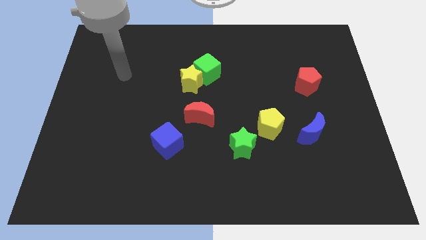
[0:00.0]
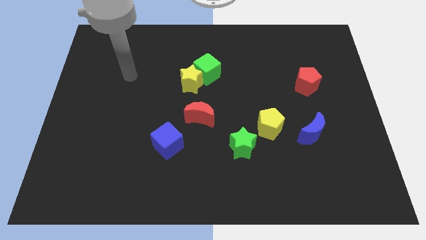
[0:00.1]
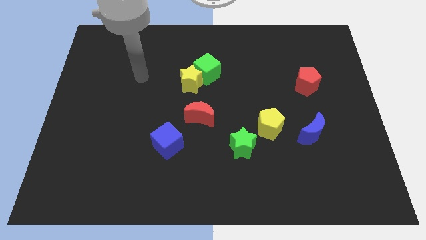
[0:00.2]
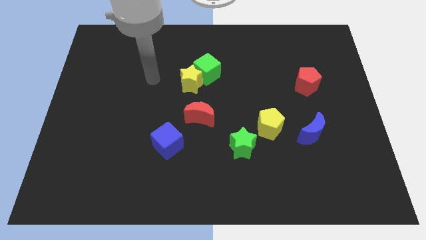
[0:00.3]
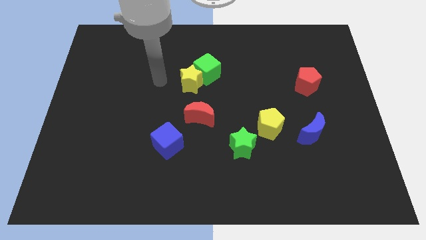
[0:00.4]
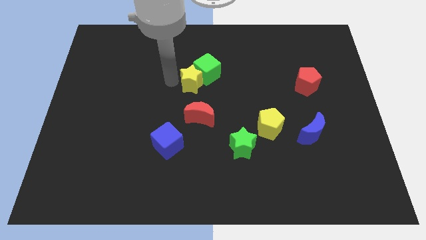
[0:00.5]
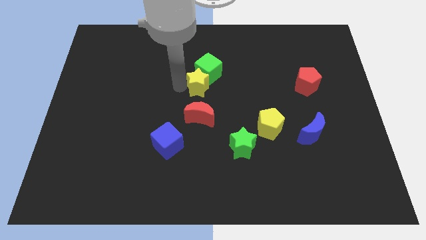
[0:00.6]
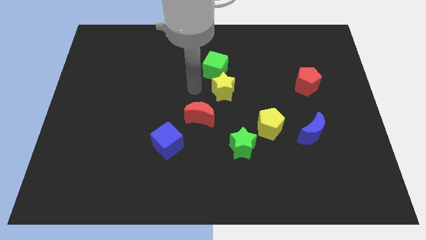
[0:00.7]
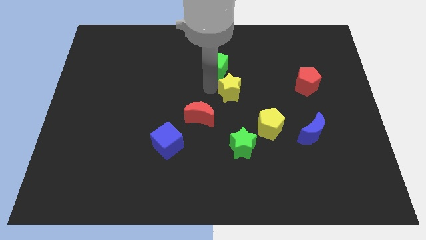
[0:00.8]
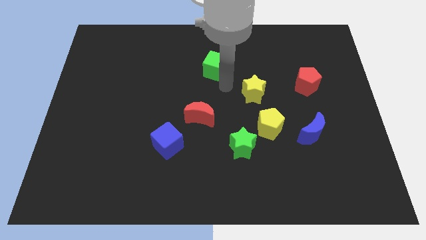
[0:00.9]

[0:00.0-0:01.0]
separate the green cube from the yellow star

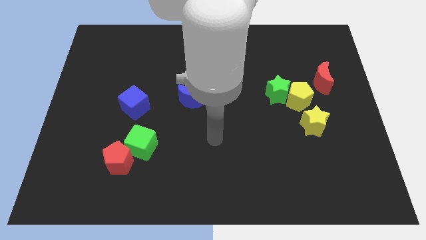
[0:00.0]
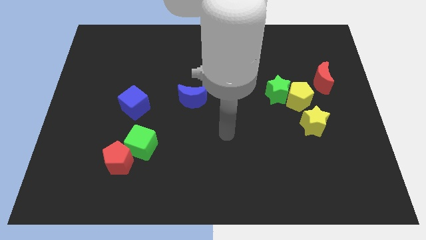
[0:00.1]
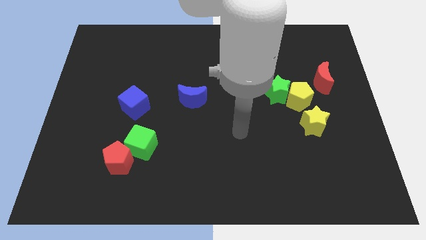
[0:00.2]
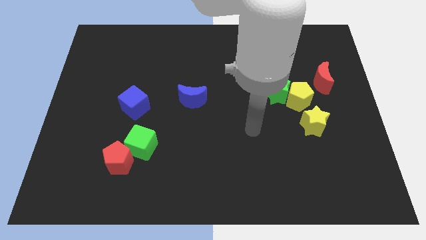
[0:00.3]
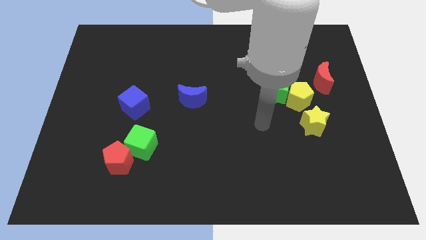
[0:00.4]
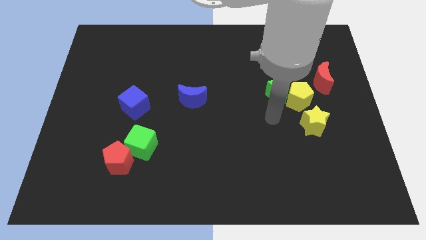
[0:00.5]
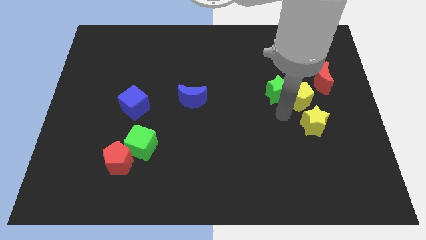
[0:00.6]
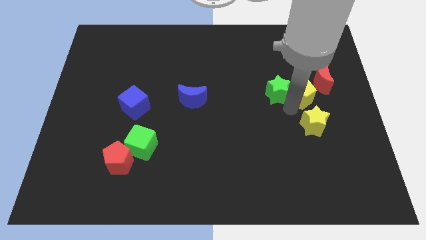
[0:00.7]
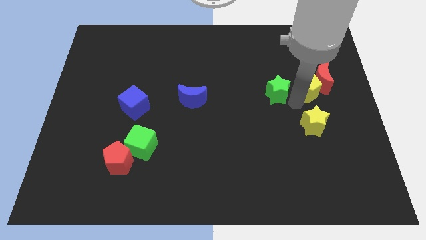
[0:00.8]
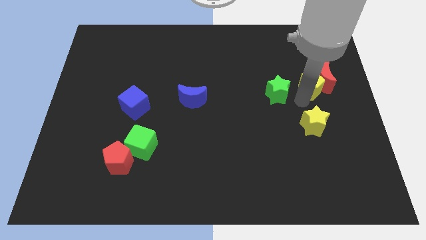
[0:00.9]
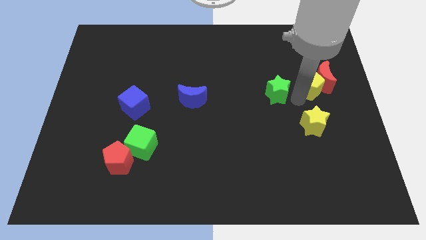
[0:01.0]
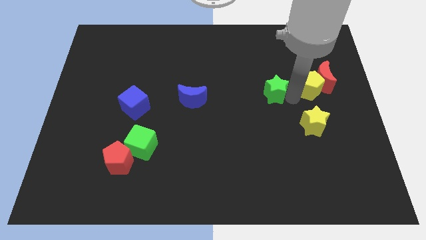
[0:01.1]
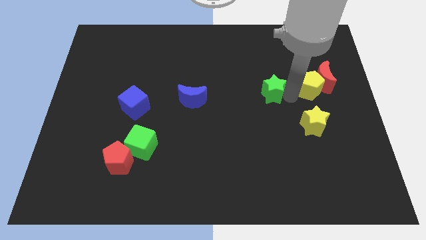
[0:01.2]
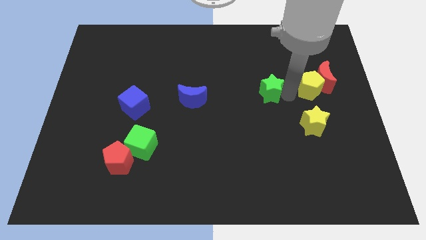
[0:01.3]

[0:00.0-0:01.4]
move the green star away from the yellow pentagon

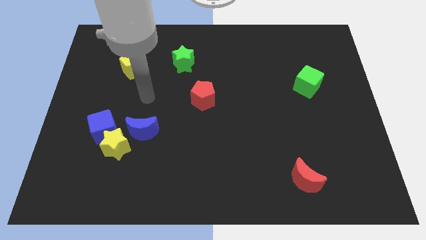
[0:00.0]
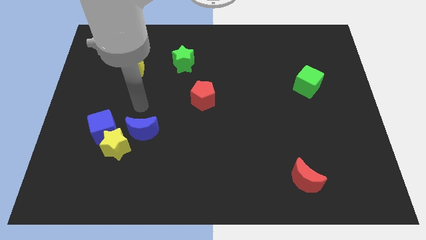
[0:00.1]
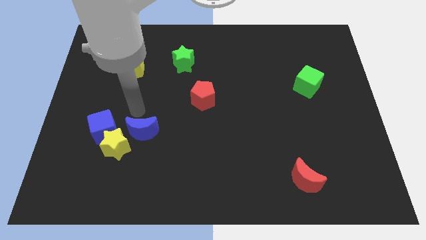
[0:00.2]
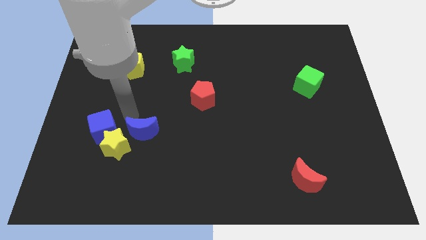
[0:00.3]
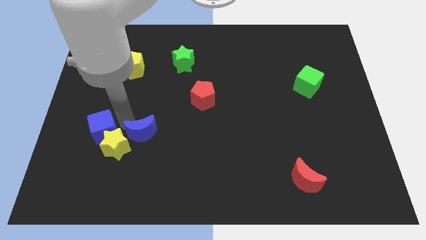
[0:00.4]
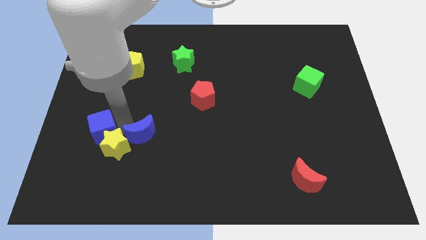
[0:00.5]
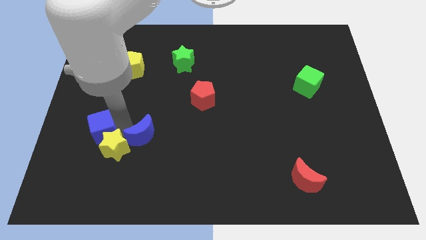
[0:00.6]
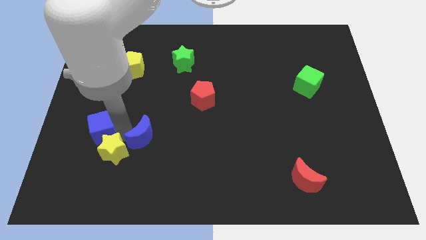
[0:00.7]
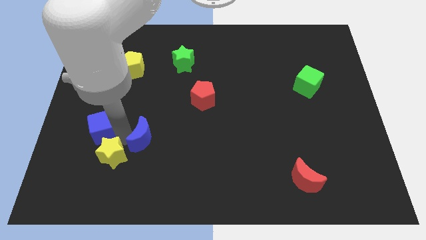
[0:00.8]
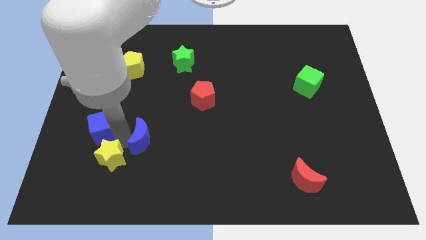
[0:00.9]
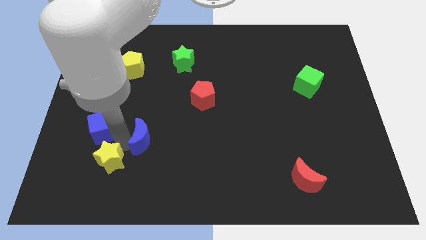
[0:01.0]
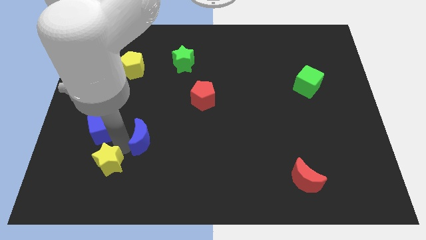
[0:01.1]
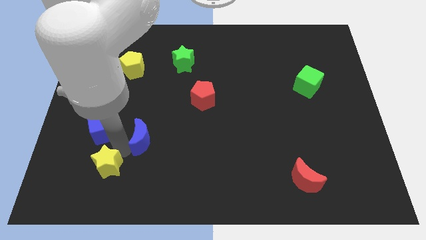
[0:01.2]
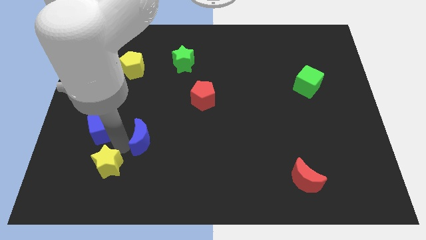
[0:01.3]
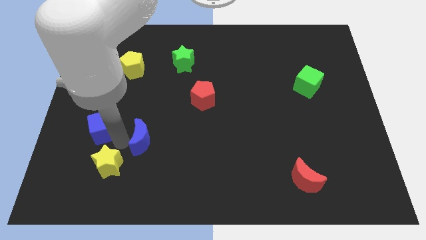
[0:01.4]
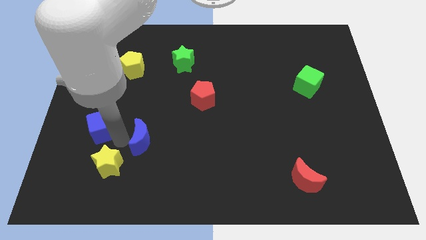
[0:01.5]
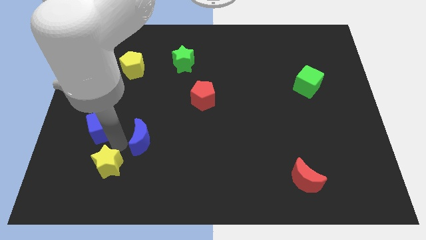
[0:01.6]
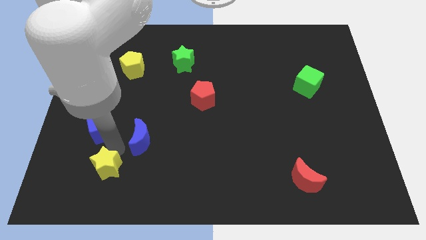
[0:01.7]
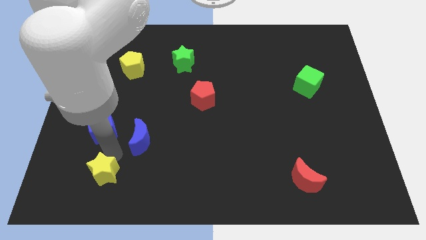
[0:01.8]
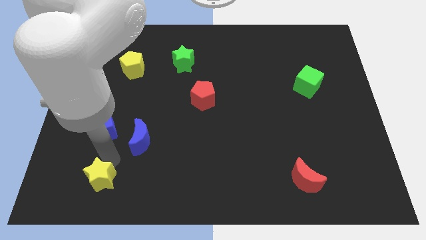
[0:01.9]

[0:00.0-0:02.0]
separate the yellow star from the blue cube and blue moon

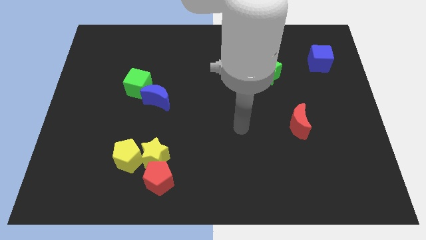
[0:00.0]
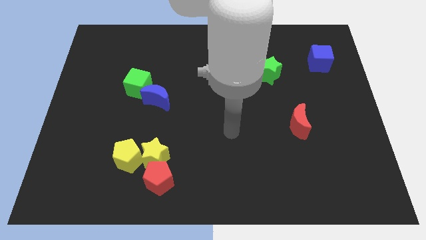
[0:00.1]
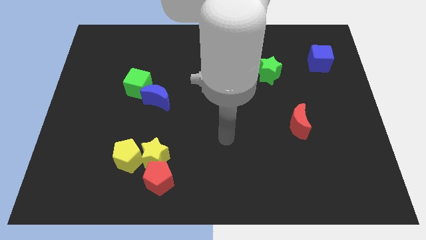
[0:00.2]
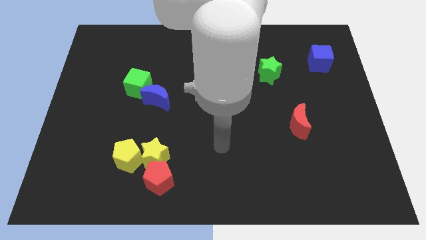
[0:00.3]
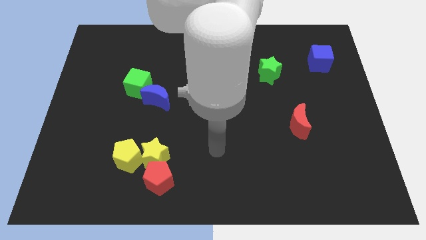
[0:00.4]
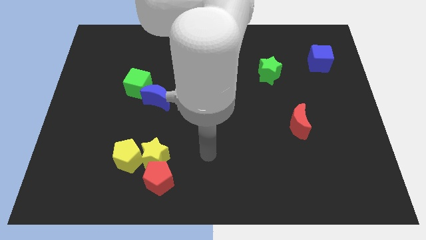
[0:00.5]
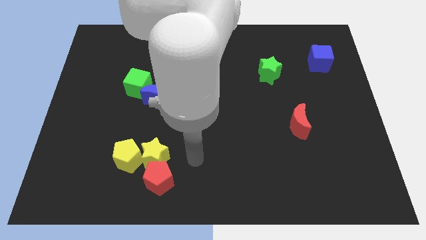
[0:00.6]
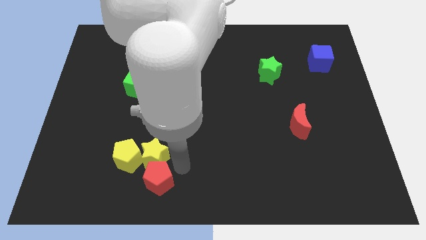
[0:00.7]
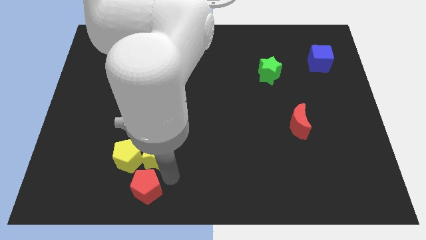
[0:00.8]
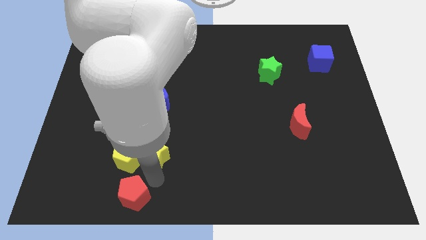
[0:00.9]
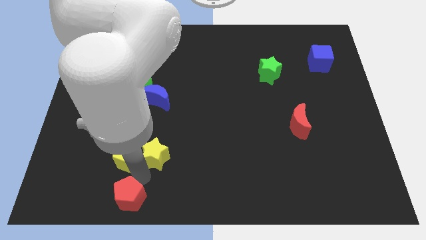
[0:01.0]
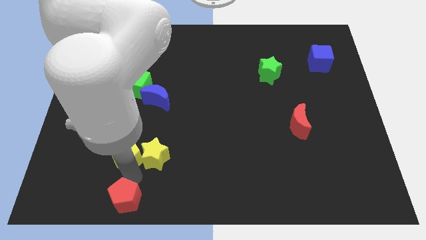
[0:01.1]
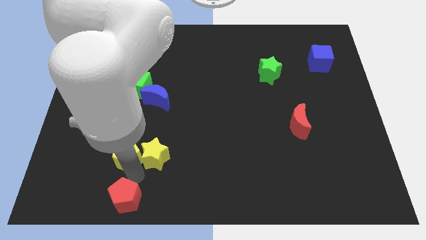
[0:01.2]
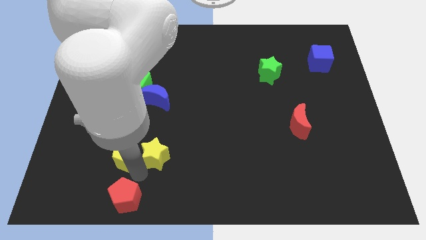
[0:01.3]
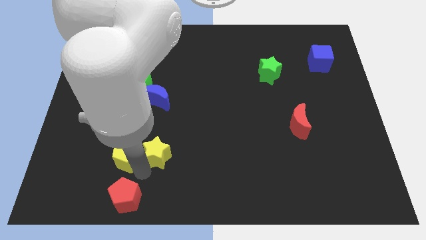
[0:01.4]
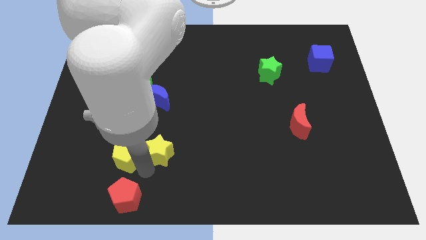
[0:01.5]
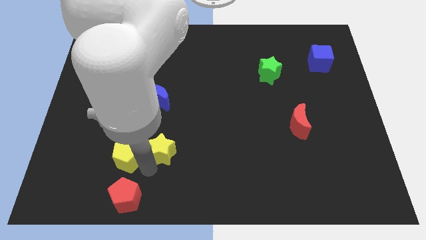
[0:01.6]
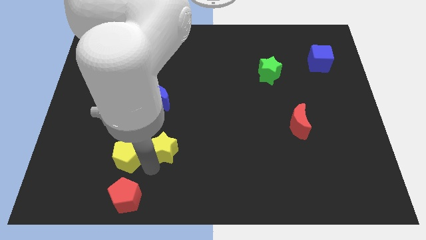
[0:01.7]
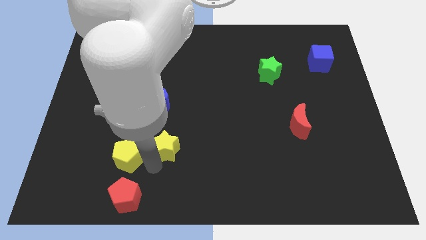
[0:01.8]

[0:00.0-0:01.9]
pull the yellow star apart from the red pentagon and yellow pentagon

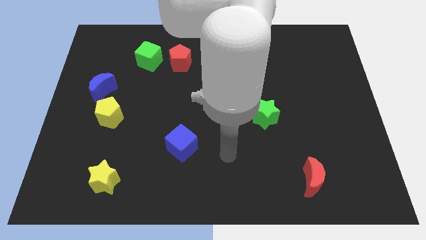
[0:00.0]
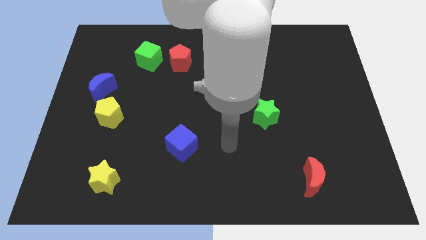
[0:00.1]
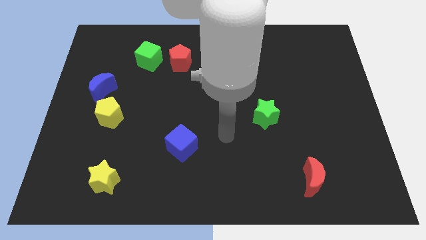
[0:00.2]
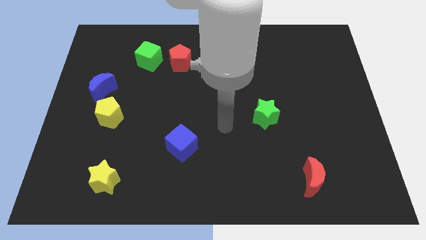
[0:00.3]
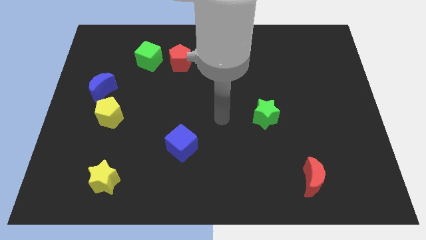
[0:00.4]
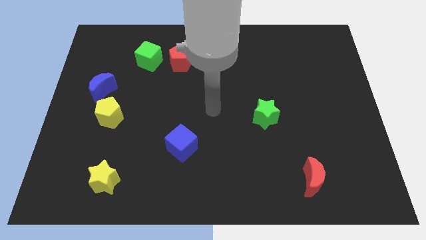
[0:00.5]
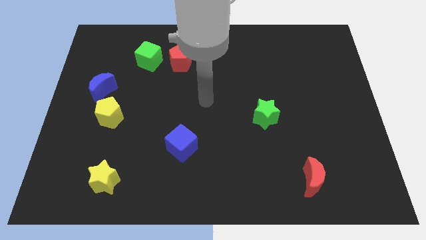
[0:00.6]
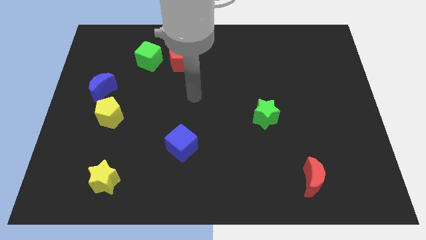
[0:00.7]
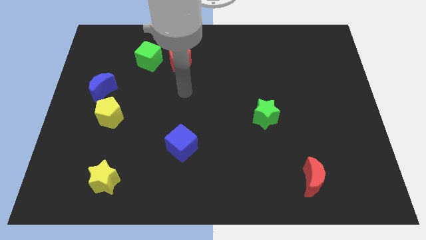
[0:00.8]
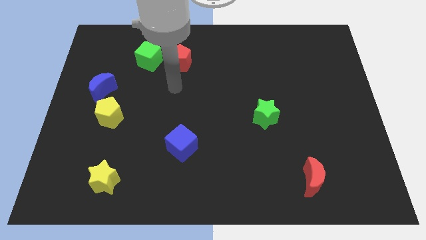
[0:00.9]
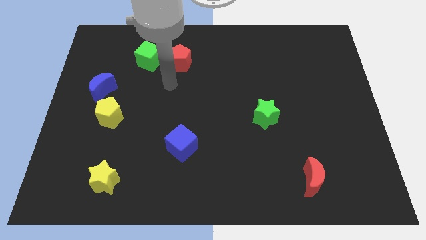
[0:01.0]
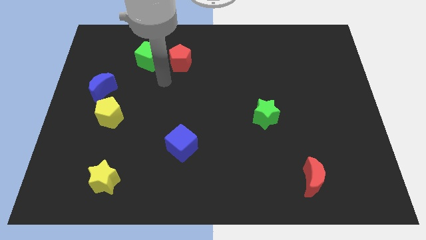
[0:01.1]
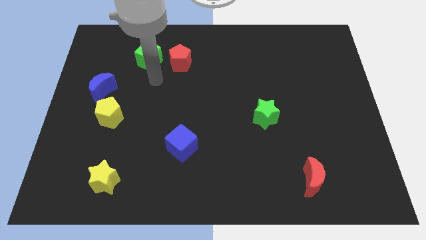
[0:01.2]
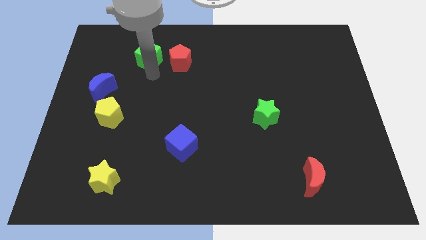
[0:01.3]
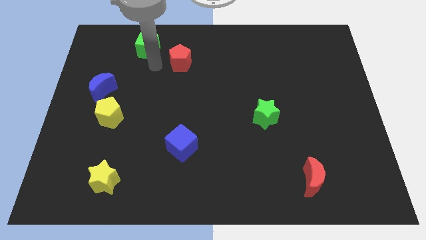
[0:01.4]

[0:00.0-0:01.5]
separate the red pentagon from the green cube

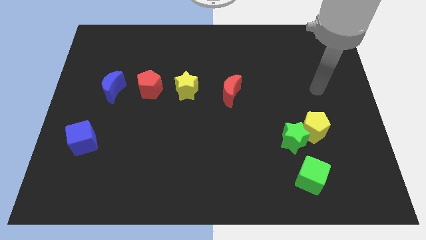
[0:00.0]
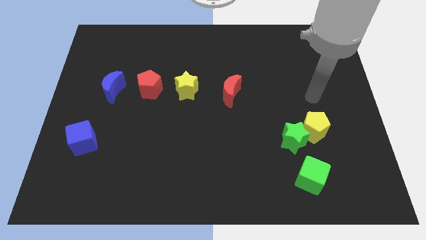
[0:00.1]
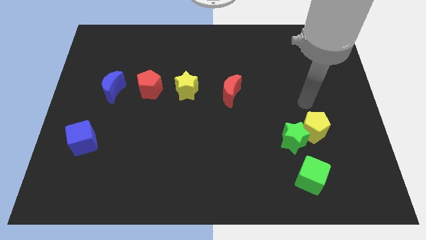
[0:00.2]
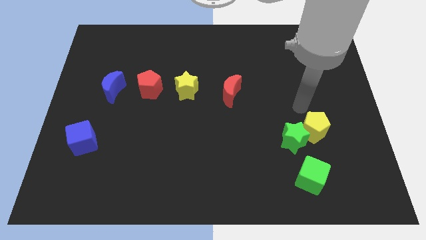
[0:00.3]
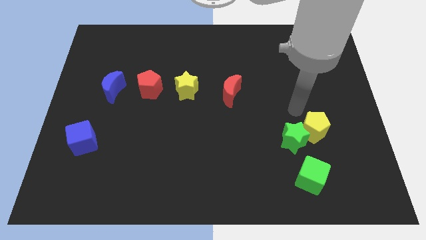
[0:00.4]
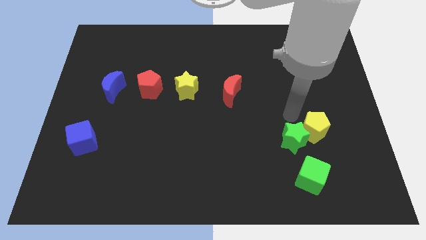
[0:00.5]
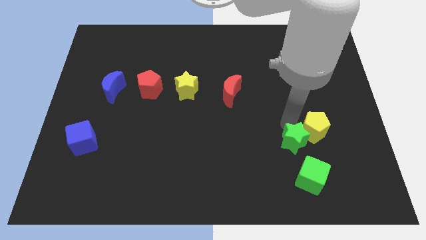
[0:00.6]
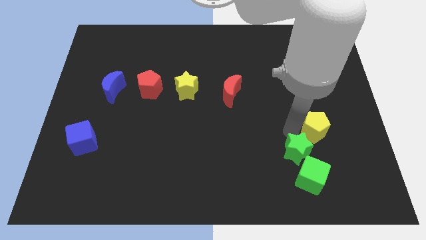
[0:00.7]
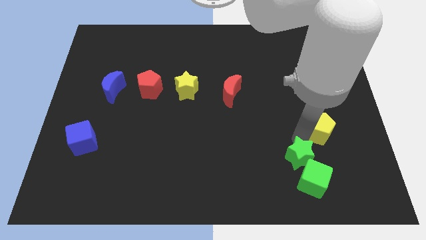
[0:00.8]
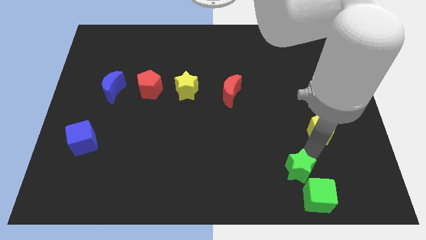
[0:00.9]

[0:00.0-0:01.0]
move the yellow pentagon away from the green star

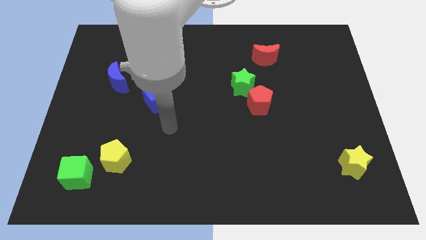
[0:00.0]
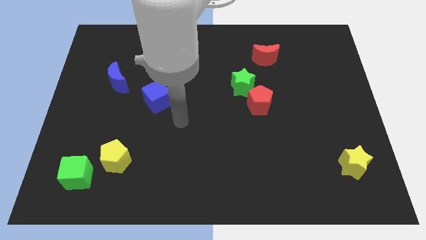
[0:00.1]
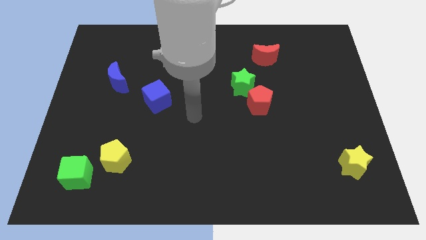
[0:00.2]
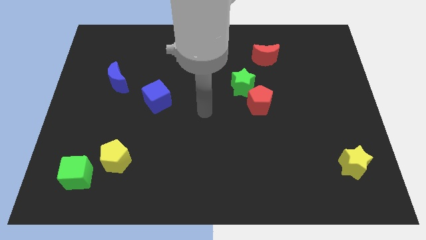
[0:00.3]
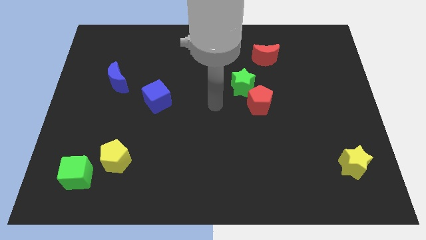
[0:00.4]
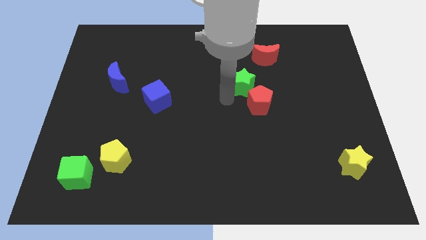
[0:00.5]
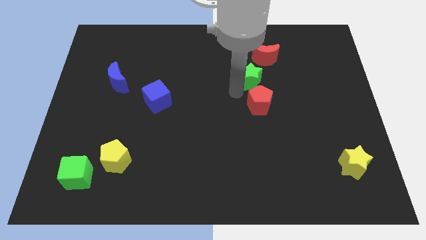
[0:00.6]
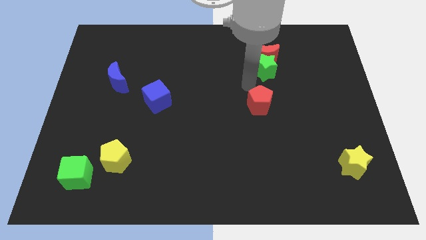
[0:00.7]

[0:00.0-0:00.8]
separate the red pentagon from the green star
